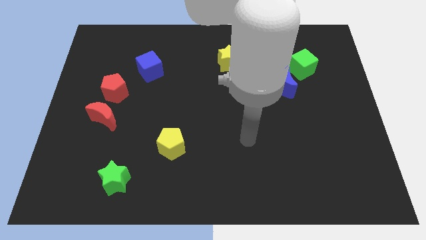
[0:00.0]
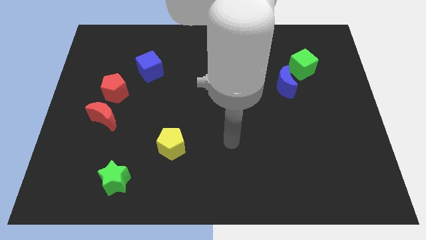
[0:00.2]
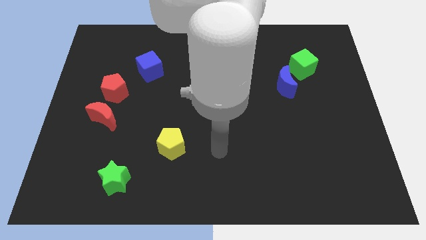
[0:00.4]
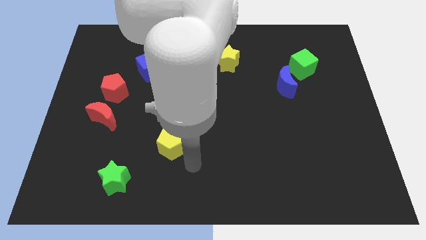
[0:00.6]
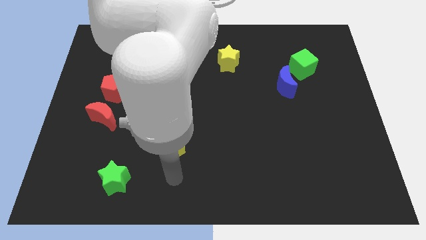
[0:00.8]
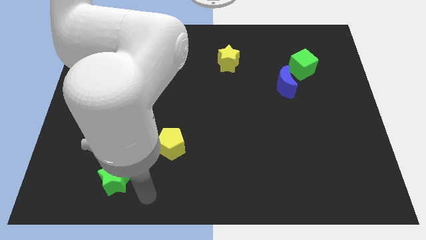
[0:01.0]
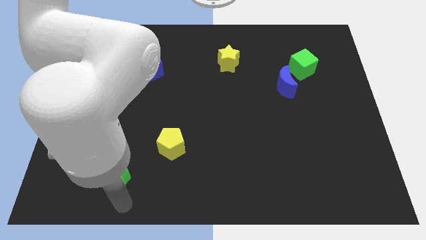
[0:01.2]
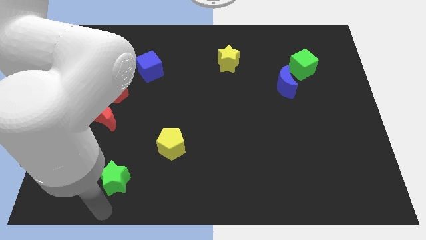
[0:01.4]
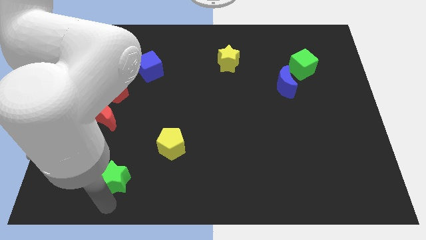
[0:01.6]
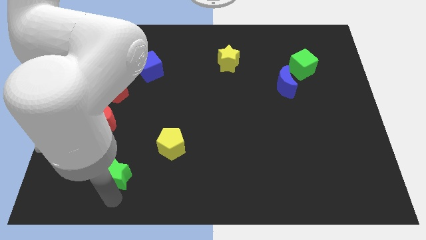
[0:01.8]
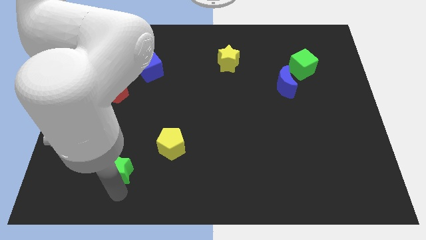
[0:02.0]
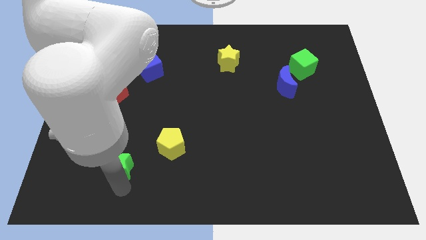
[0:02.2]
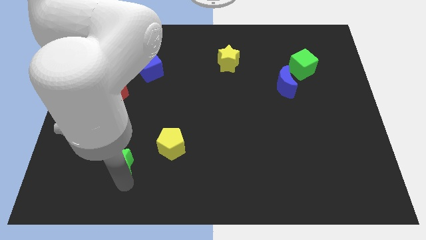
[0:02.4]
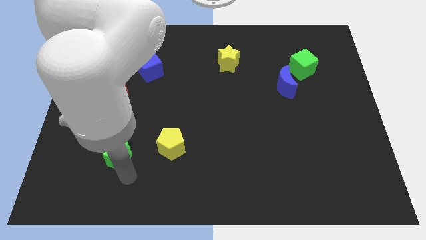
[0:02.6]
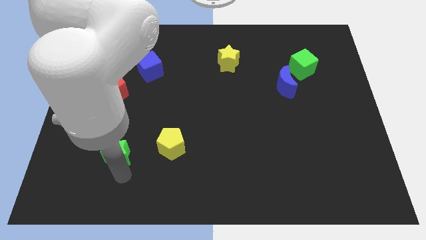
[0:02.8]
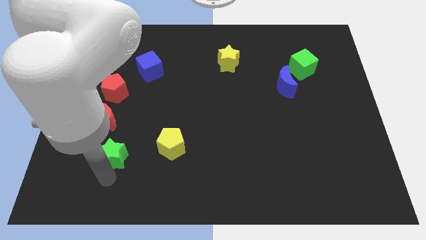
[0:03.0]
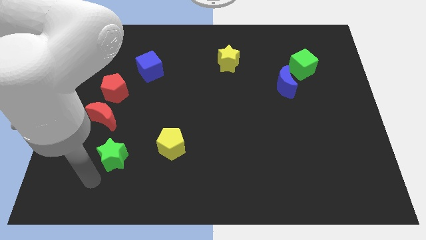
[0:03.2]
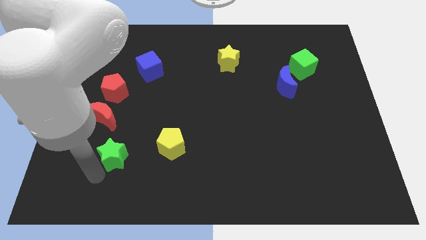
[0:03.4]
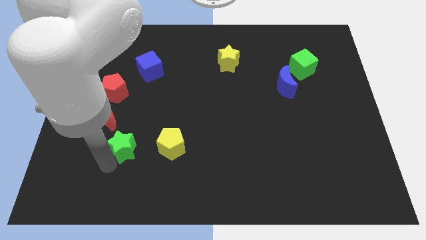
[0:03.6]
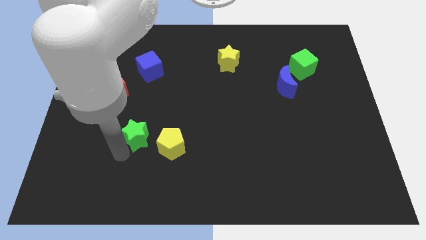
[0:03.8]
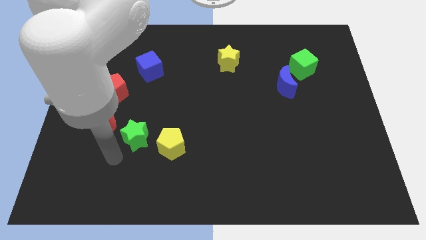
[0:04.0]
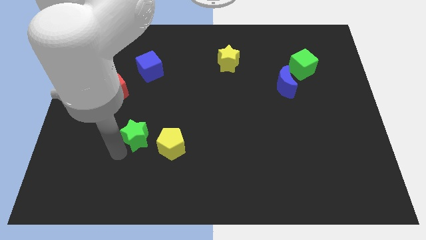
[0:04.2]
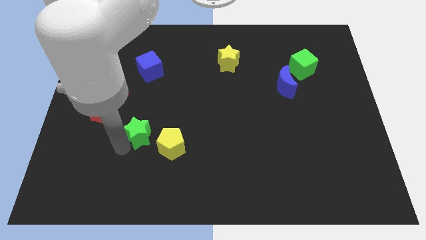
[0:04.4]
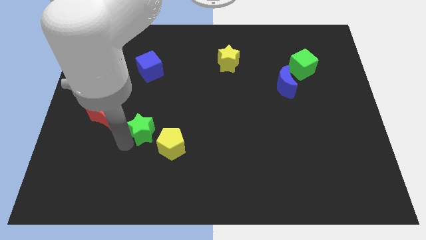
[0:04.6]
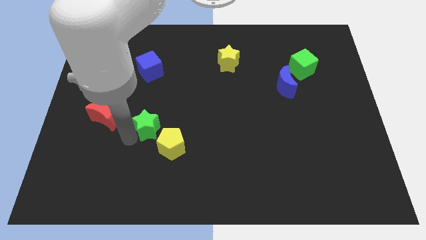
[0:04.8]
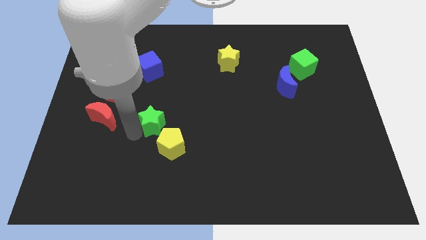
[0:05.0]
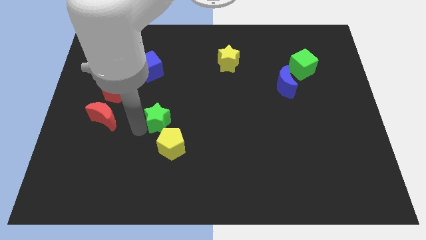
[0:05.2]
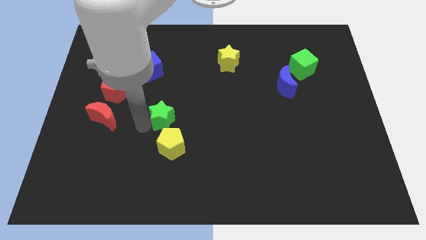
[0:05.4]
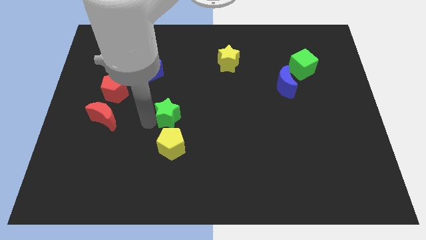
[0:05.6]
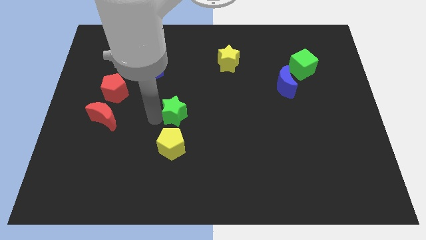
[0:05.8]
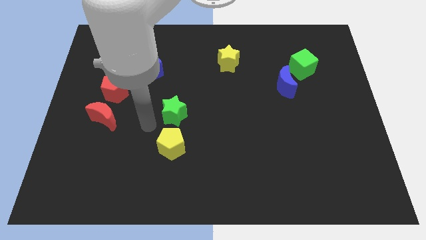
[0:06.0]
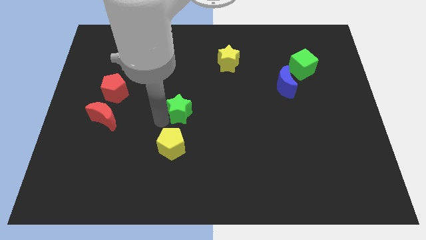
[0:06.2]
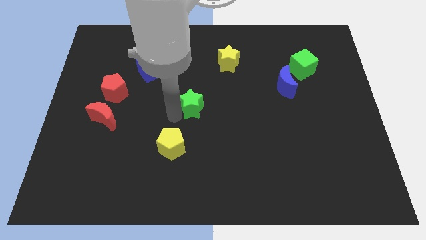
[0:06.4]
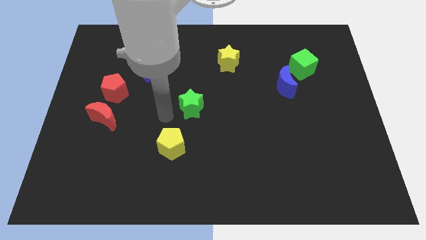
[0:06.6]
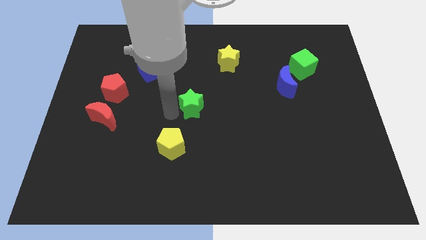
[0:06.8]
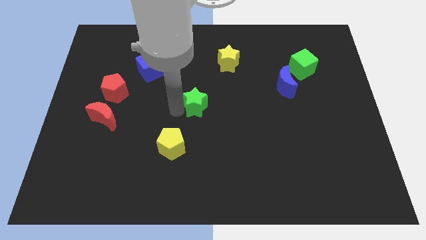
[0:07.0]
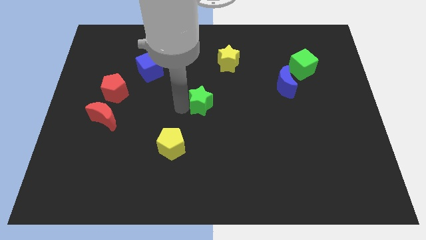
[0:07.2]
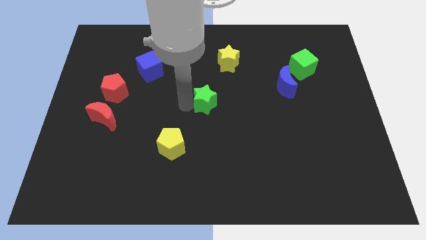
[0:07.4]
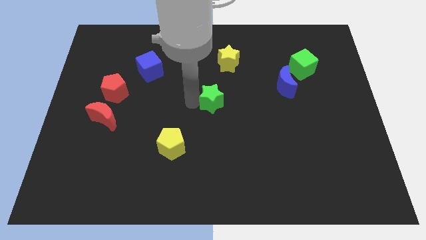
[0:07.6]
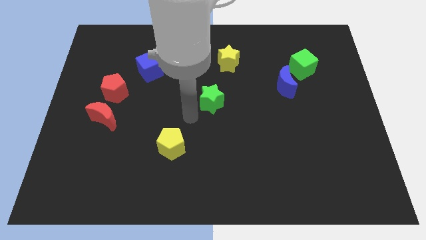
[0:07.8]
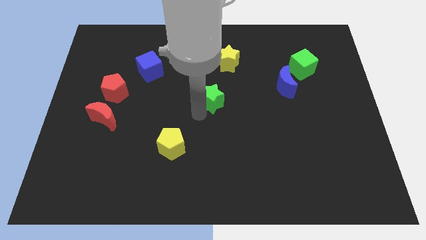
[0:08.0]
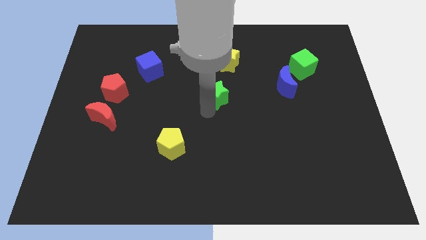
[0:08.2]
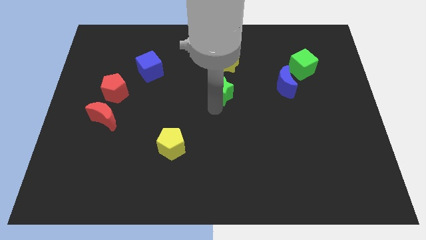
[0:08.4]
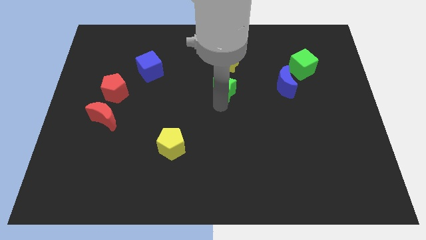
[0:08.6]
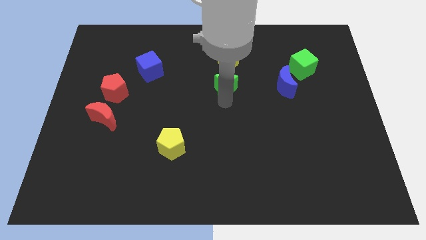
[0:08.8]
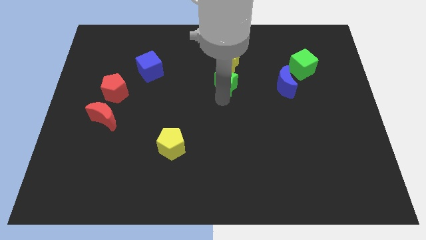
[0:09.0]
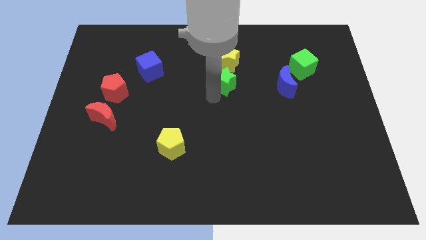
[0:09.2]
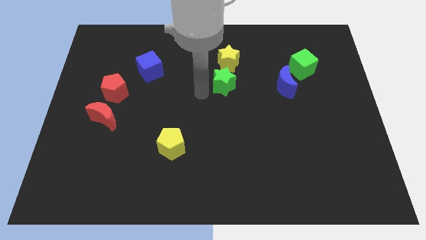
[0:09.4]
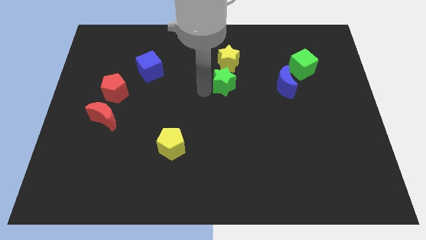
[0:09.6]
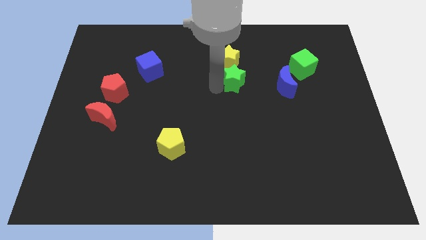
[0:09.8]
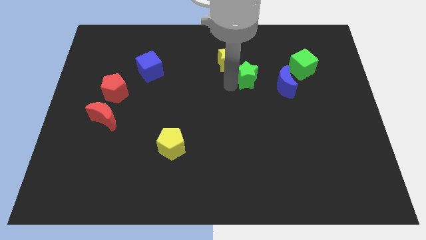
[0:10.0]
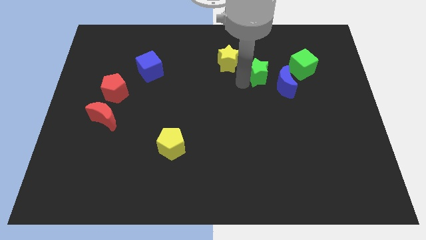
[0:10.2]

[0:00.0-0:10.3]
move the green star just right of the yellow star

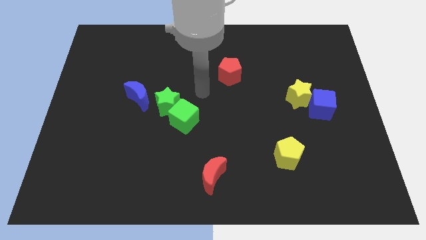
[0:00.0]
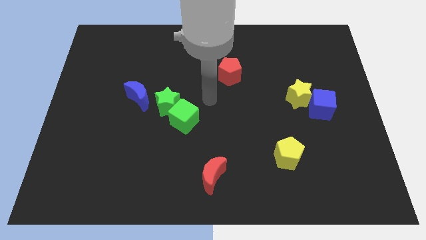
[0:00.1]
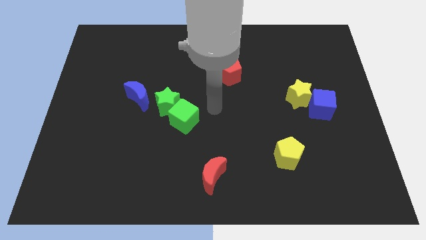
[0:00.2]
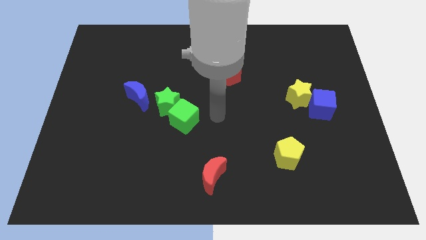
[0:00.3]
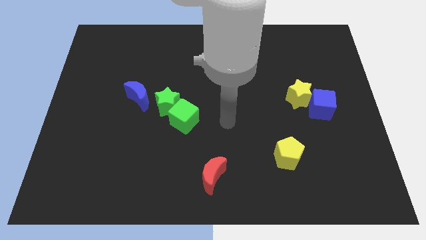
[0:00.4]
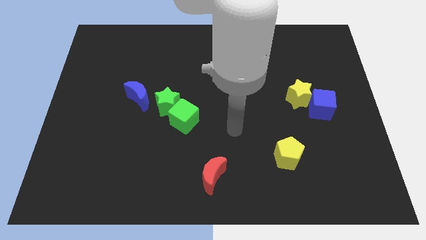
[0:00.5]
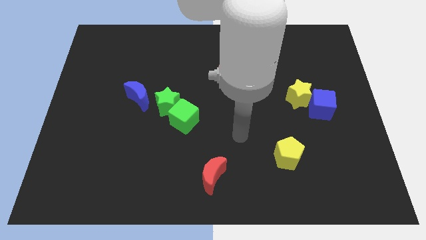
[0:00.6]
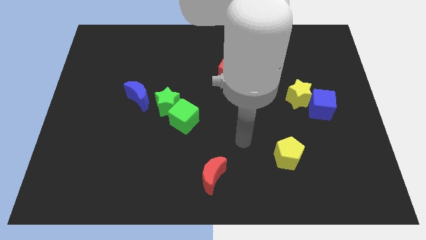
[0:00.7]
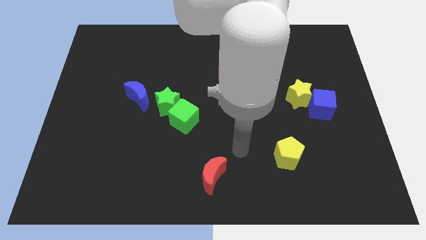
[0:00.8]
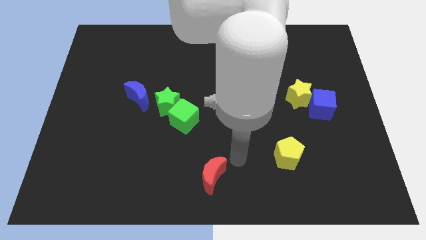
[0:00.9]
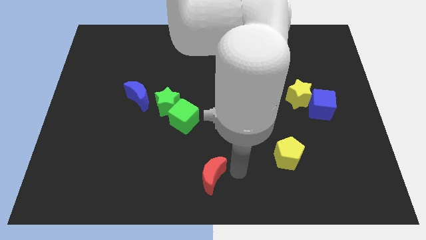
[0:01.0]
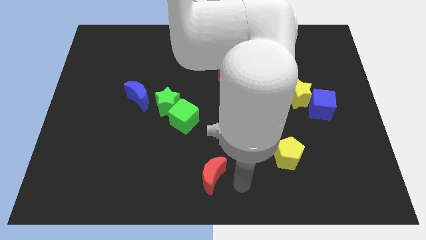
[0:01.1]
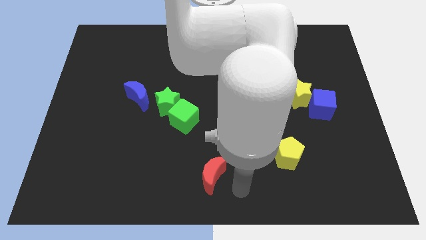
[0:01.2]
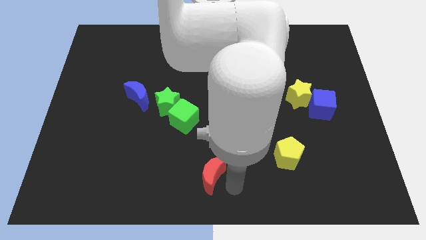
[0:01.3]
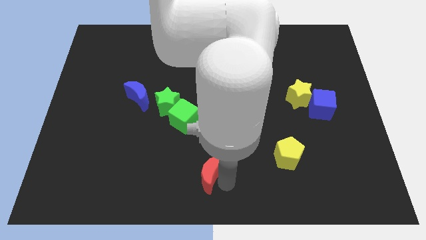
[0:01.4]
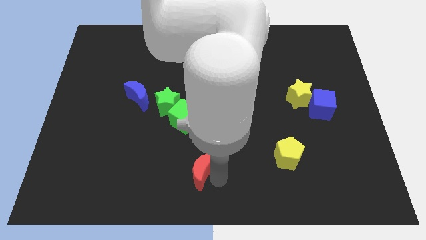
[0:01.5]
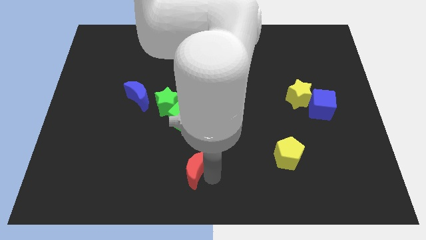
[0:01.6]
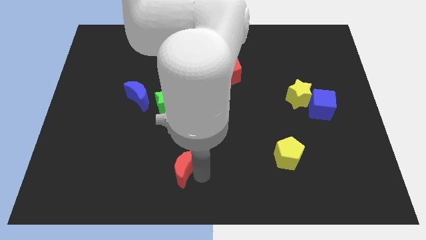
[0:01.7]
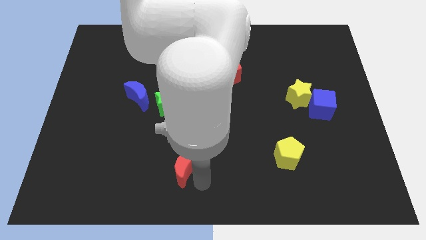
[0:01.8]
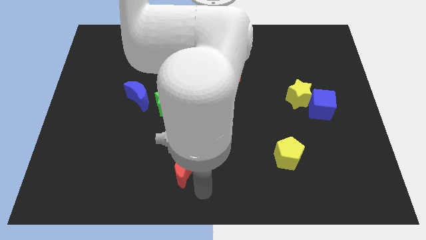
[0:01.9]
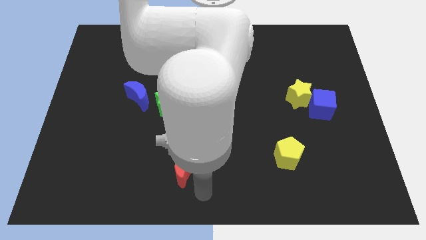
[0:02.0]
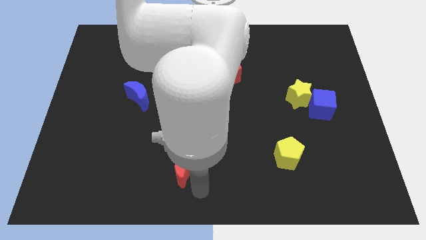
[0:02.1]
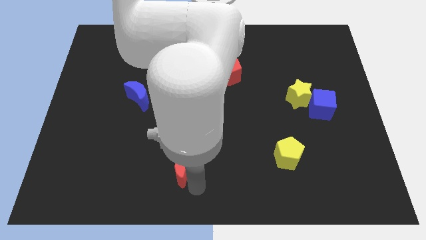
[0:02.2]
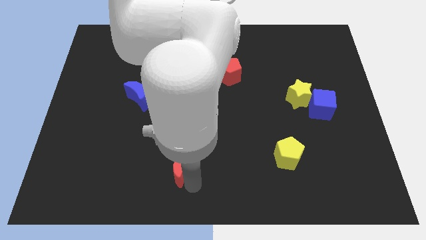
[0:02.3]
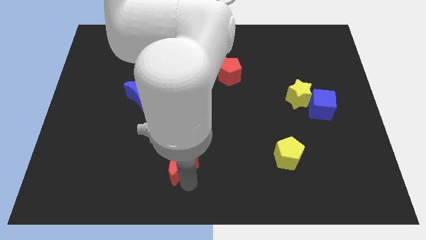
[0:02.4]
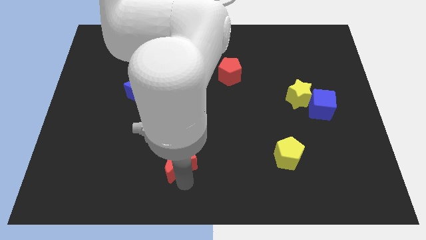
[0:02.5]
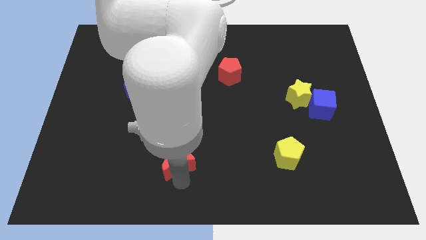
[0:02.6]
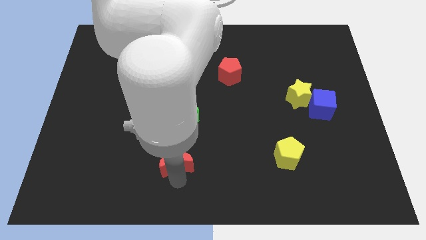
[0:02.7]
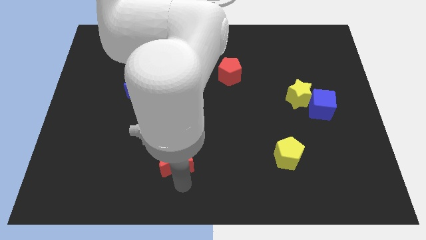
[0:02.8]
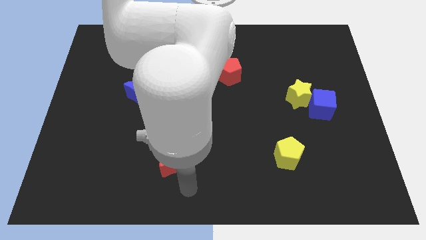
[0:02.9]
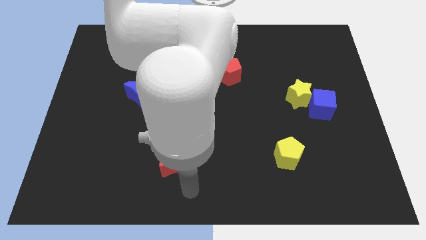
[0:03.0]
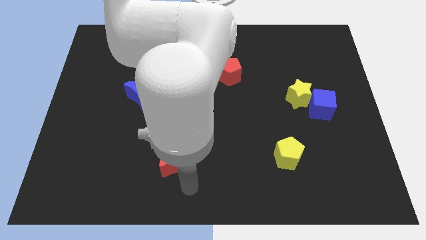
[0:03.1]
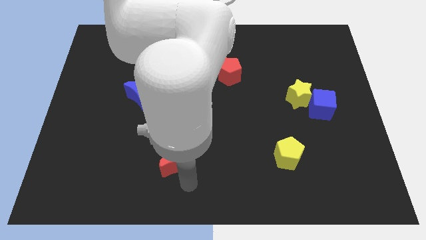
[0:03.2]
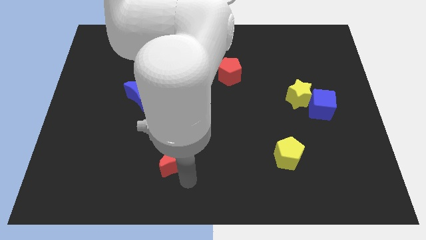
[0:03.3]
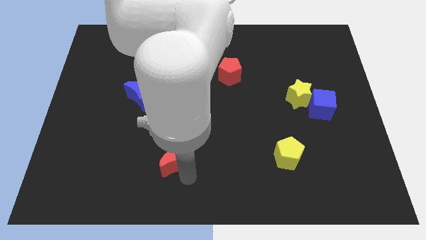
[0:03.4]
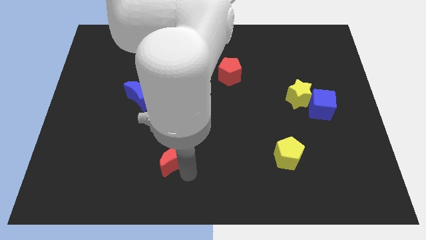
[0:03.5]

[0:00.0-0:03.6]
move the red moon below the green star
